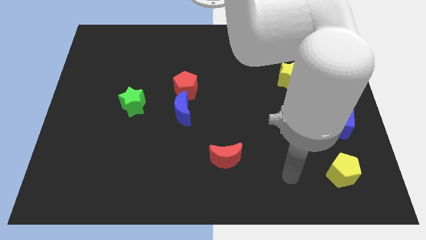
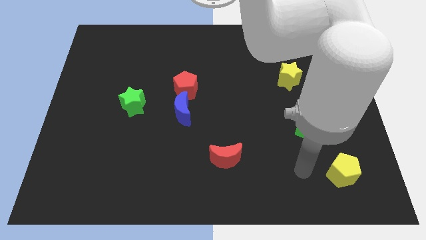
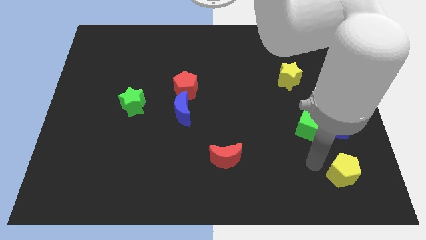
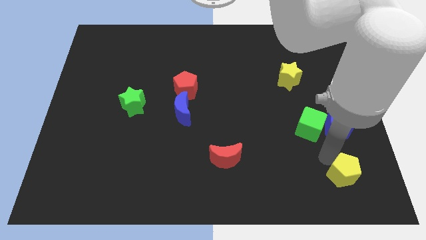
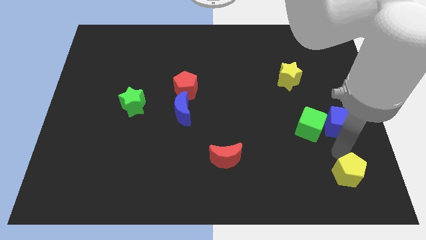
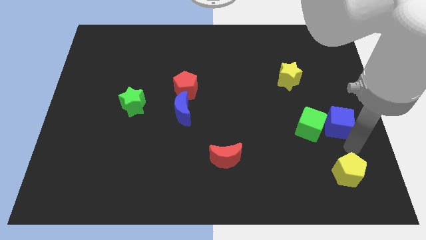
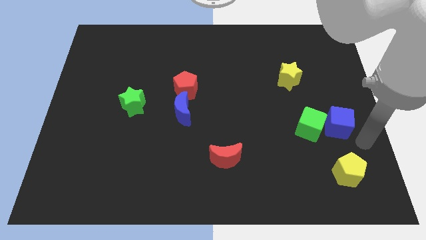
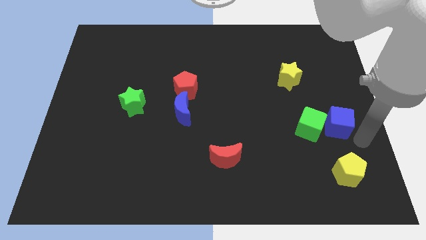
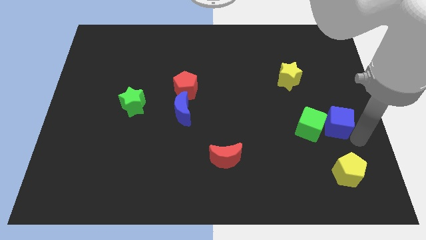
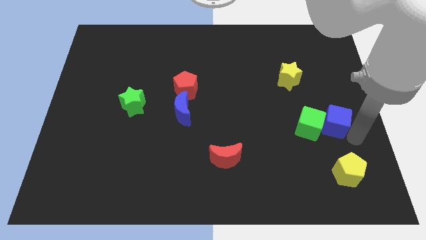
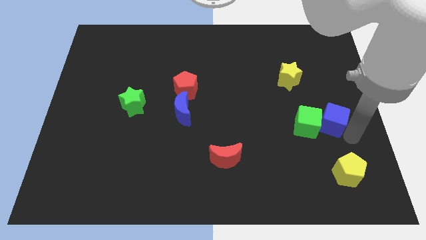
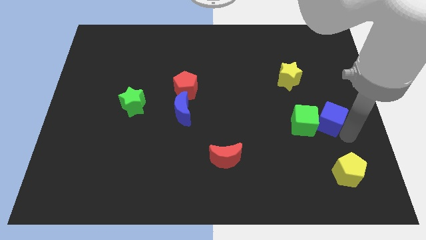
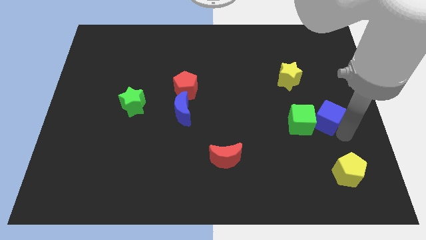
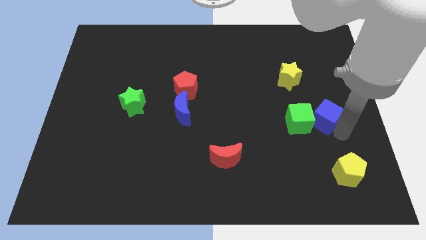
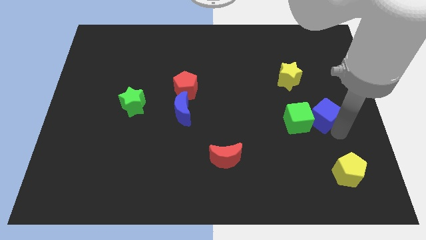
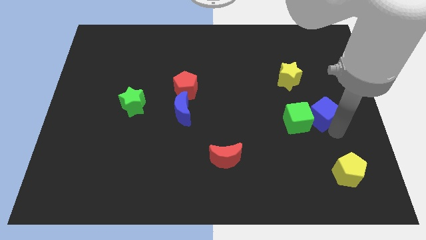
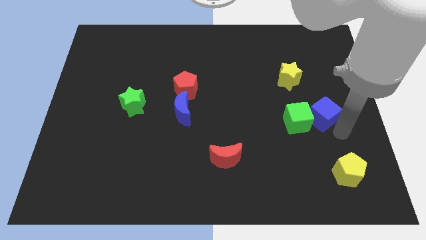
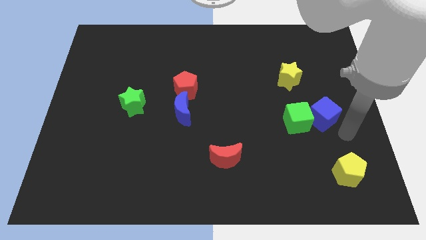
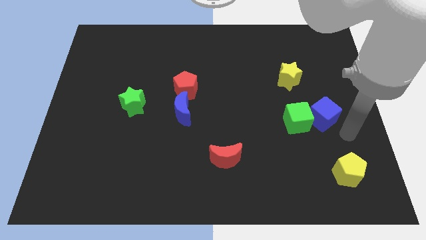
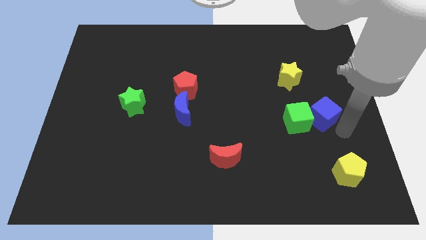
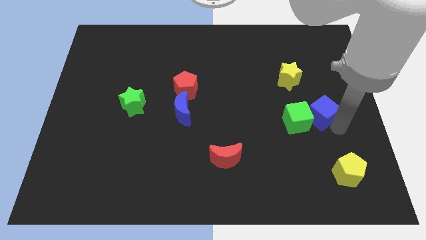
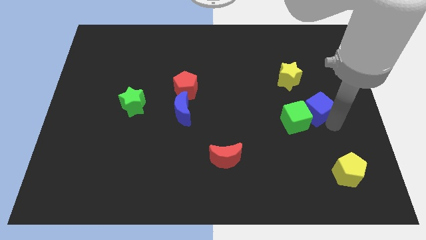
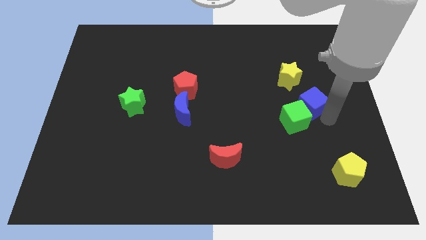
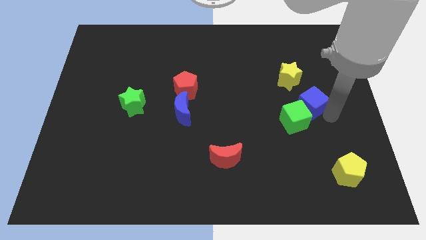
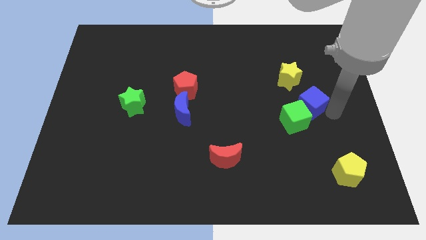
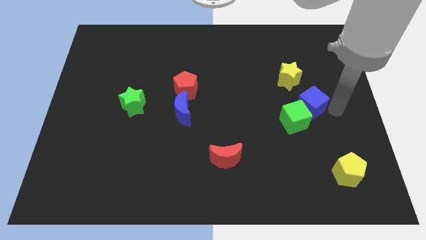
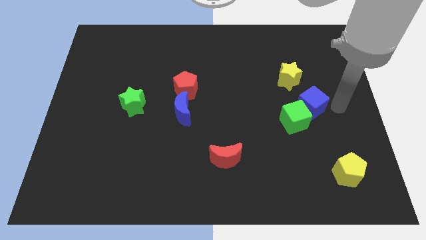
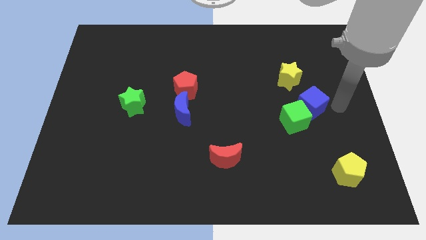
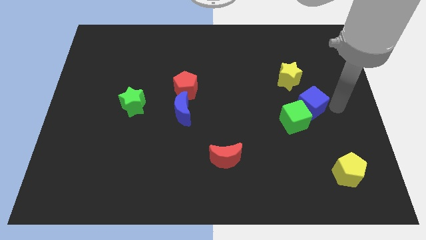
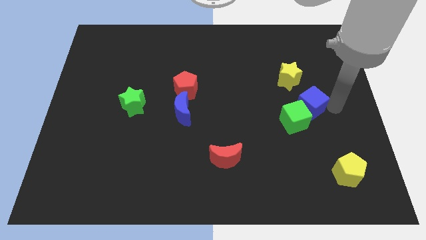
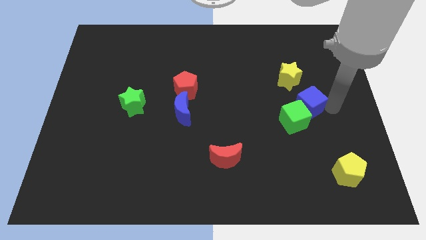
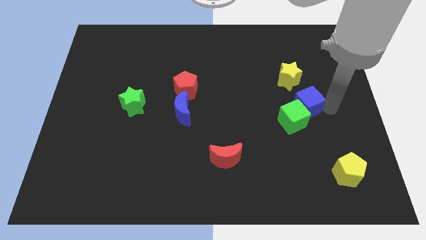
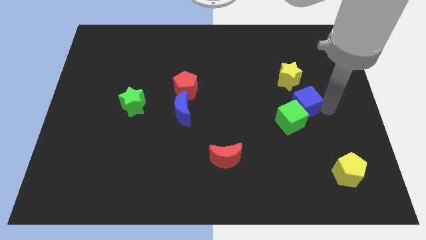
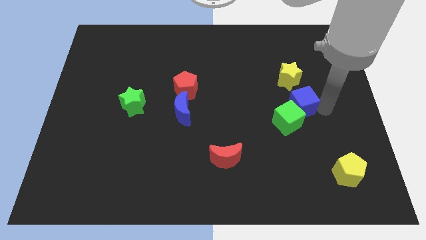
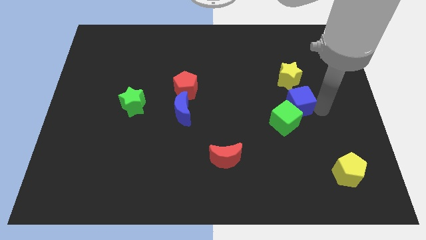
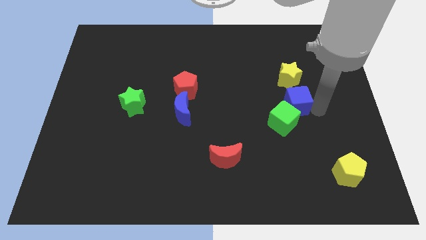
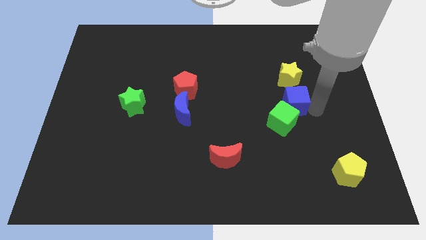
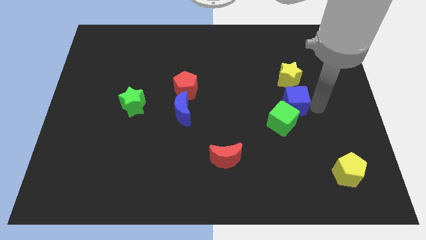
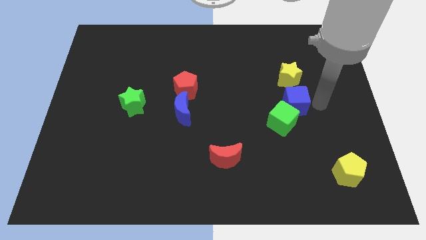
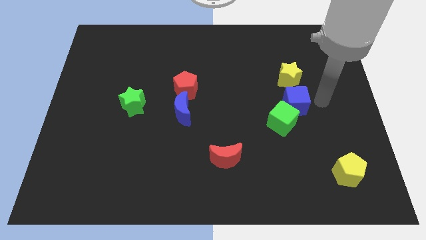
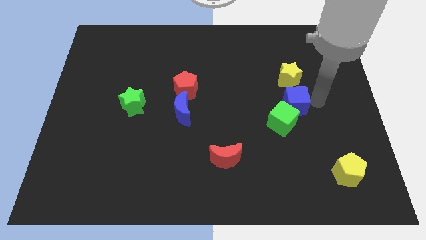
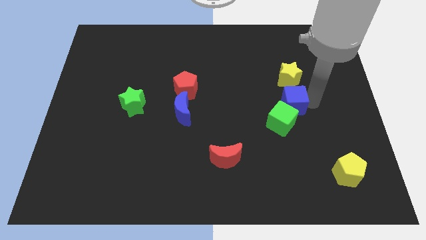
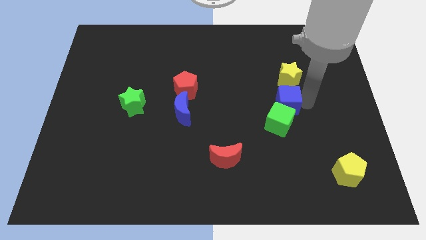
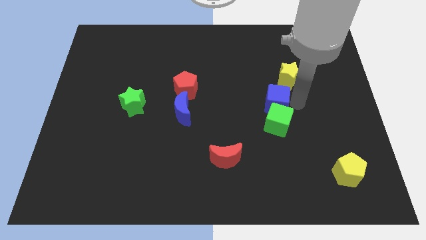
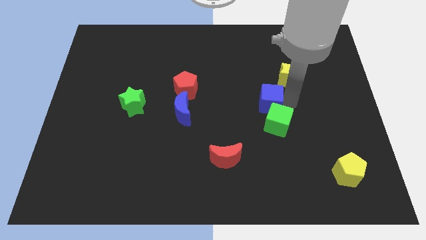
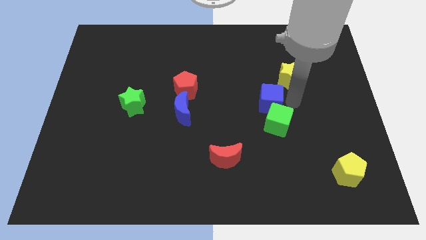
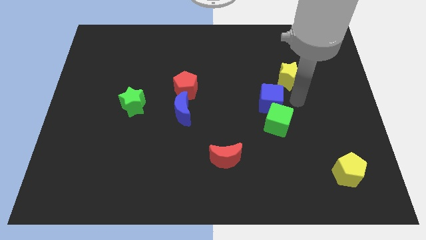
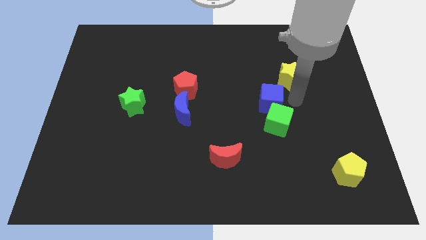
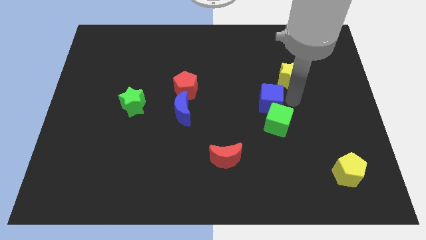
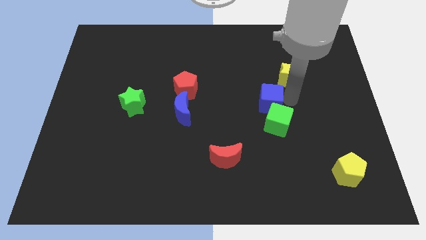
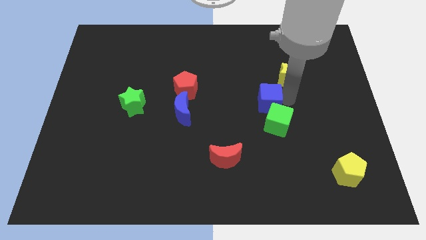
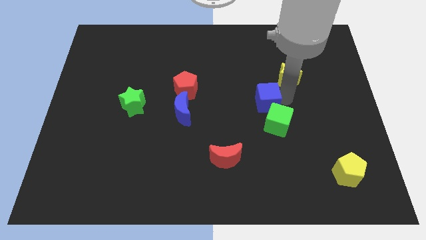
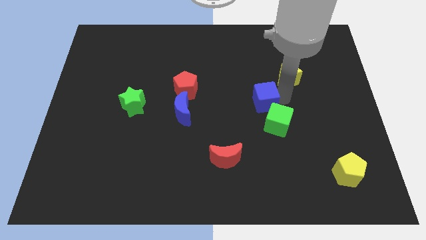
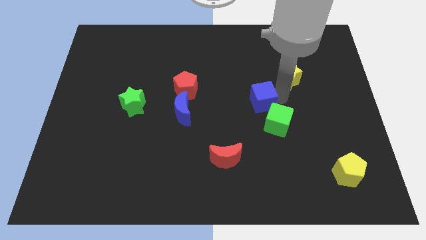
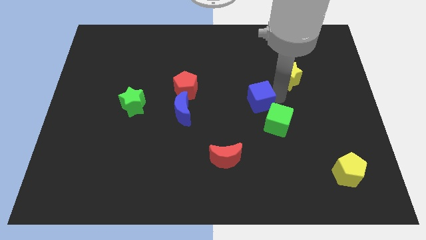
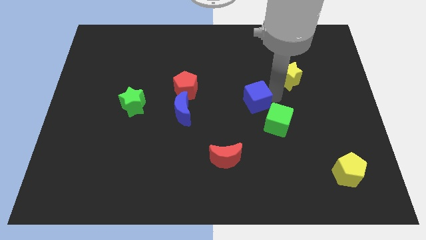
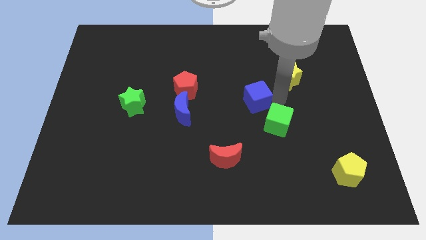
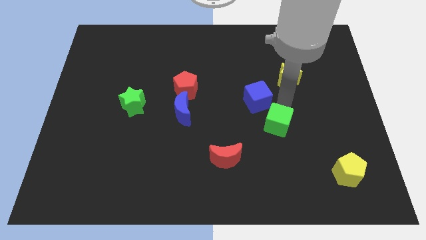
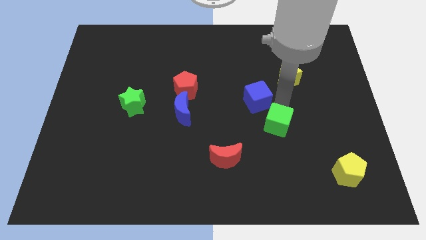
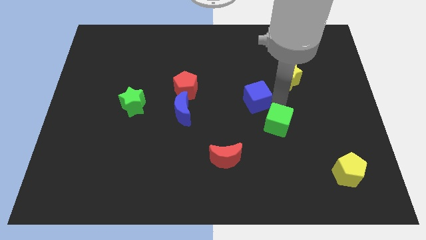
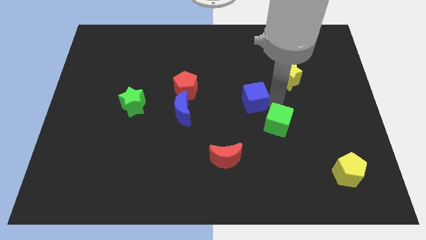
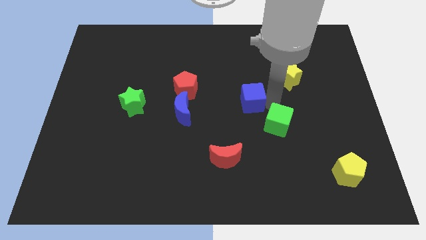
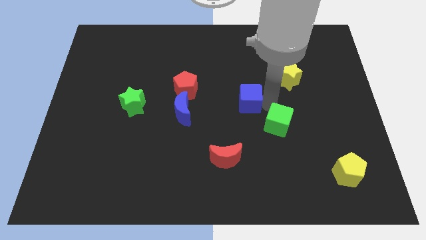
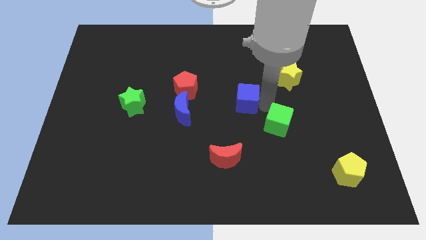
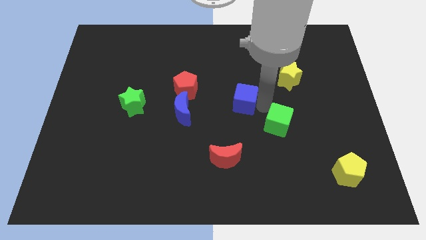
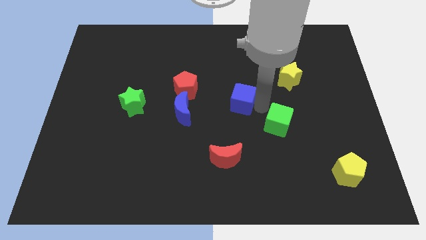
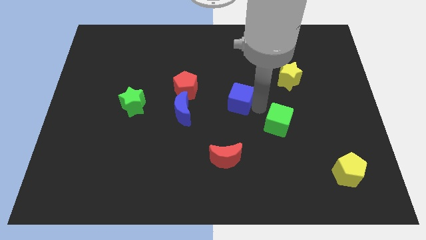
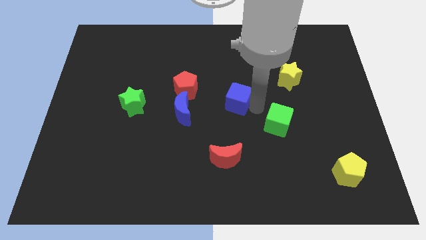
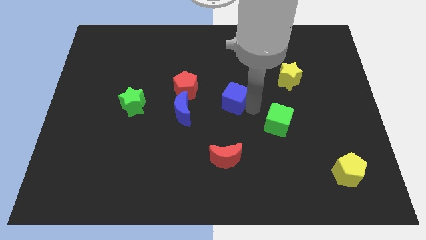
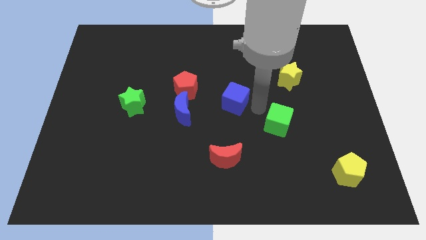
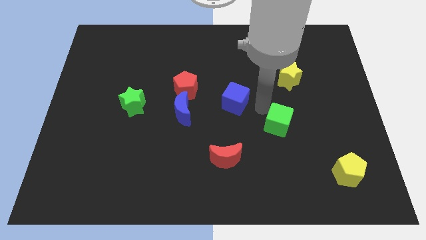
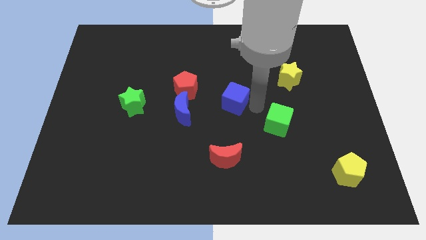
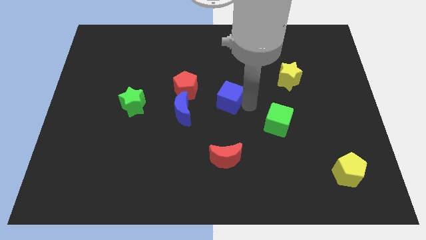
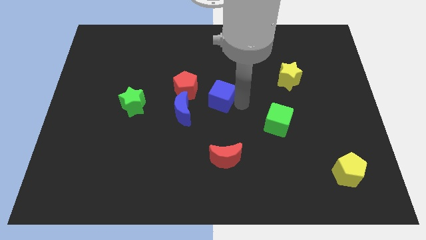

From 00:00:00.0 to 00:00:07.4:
put the blue cube to the top right side of the blue moon

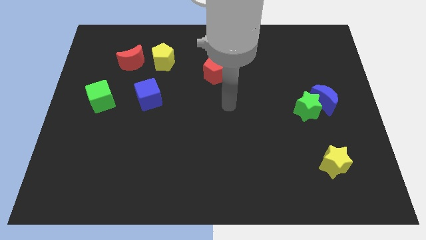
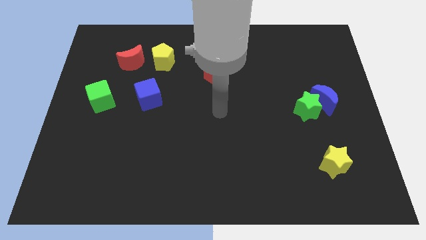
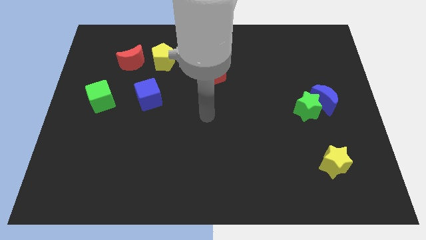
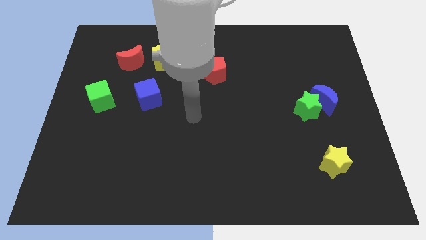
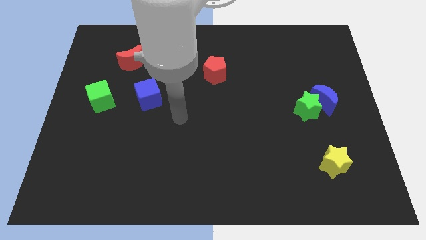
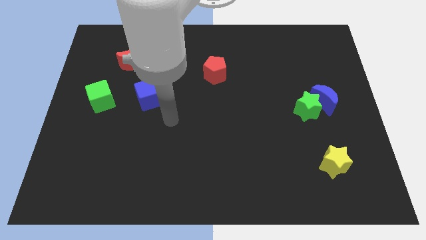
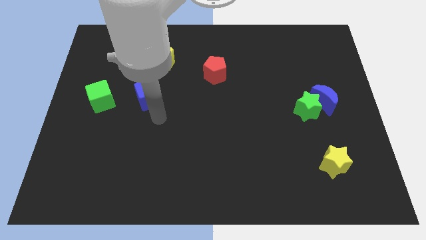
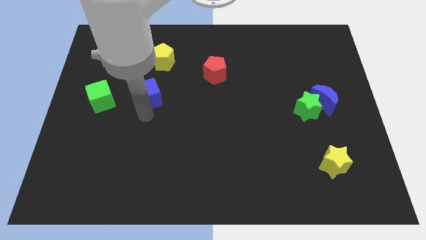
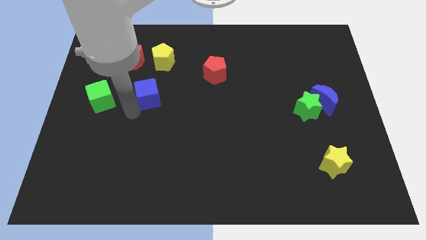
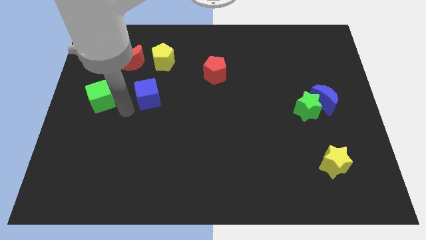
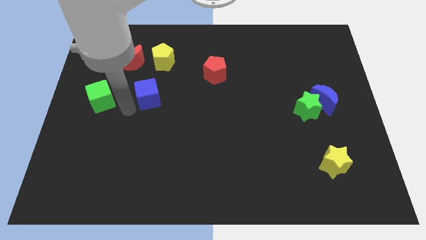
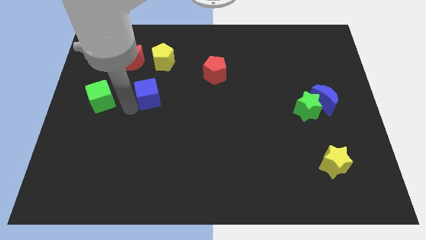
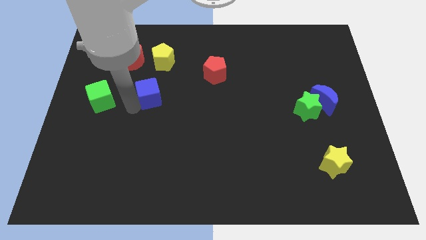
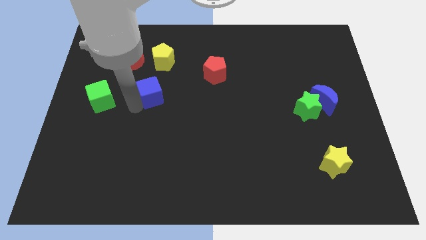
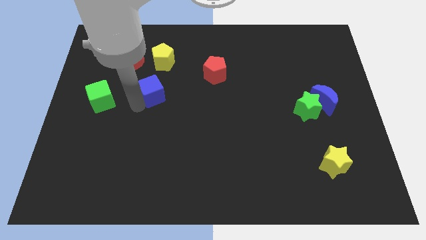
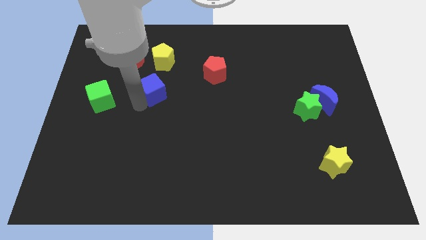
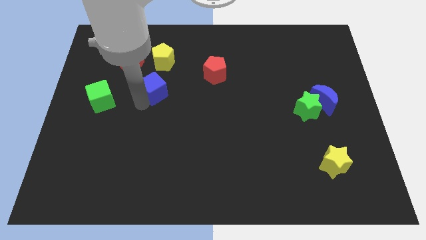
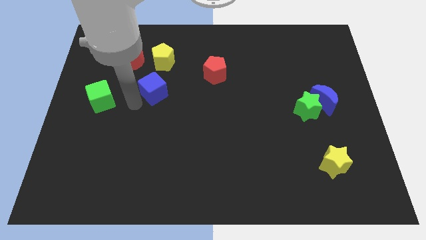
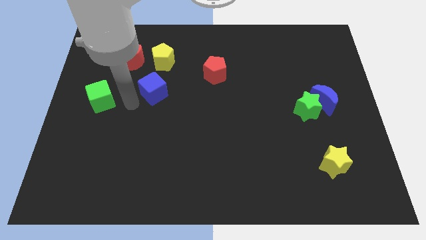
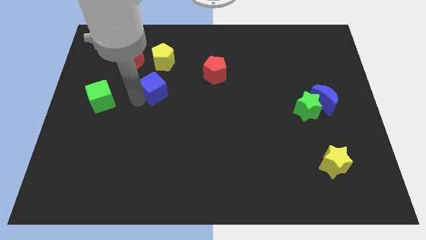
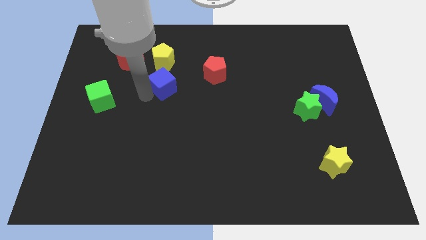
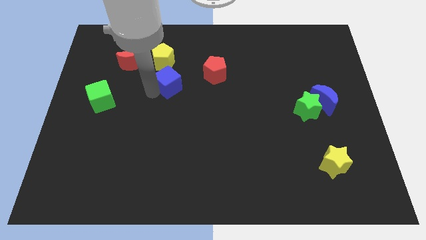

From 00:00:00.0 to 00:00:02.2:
put the blue cube to the bottom right side of the yellow pentagon
